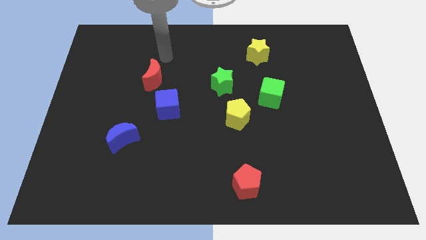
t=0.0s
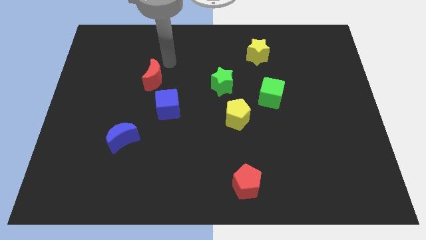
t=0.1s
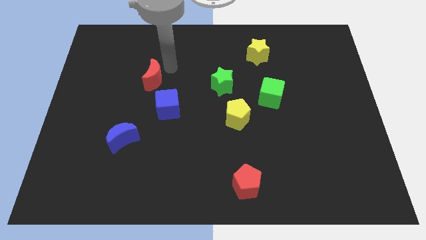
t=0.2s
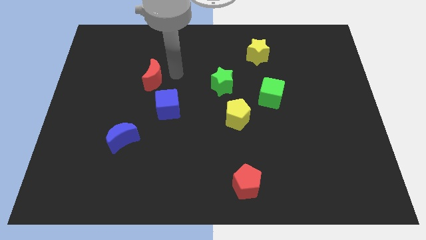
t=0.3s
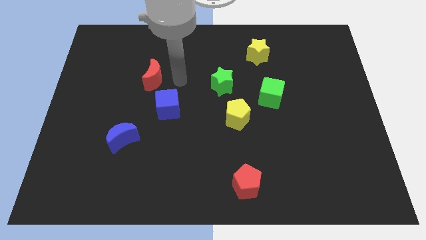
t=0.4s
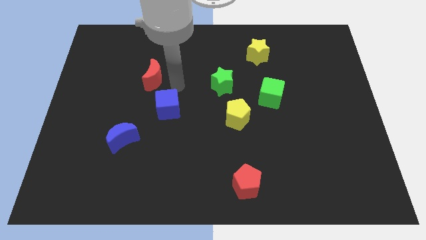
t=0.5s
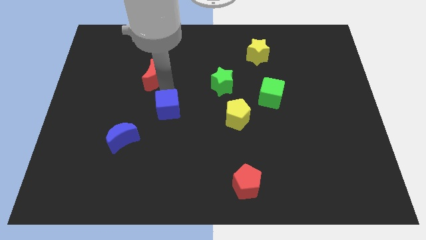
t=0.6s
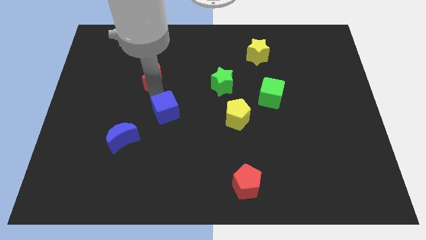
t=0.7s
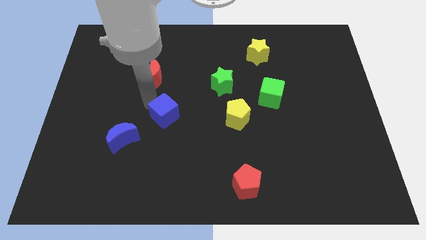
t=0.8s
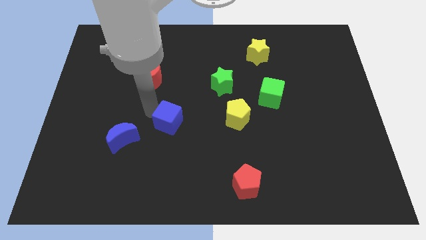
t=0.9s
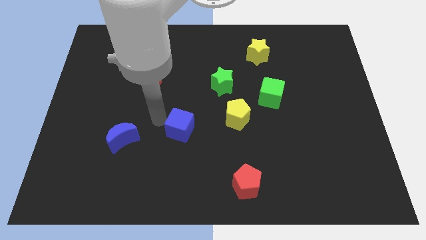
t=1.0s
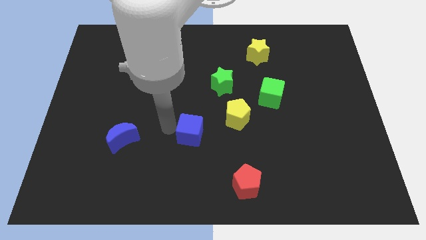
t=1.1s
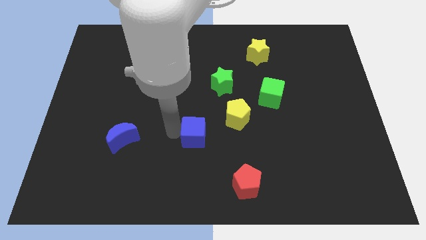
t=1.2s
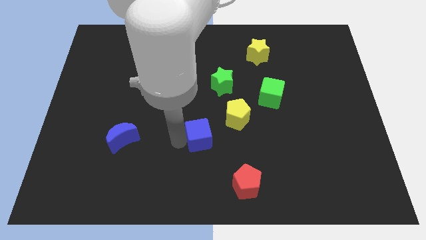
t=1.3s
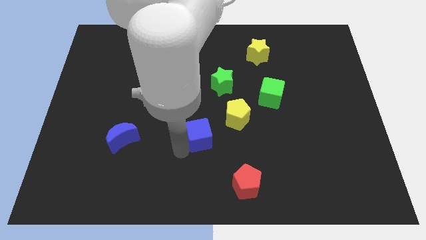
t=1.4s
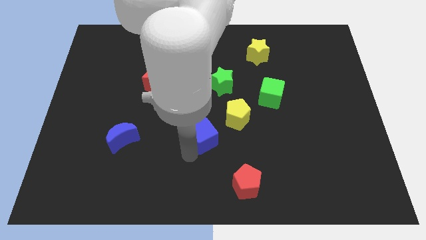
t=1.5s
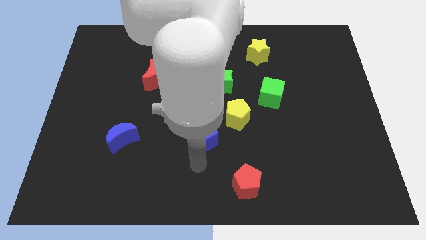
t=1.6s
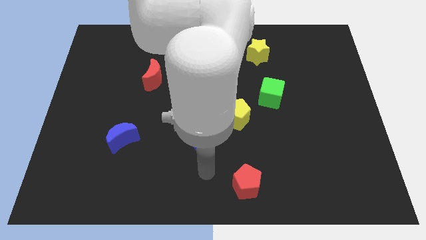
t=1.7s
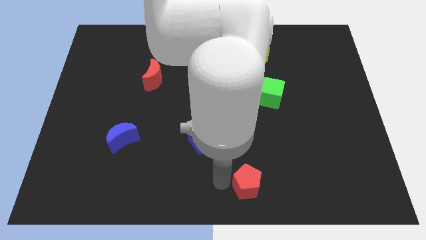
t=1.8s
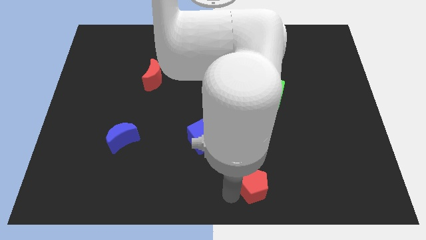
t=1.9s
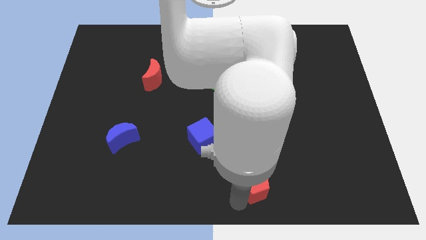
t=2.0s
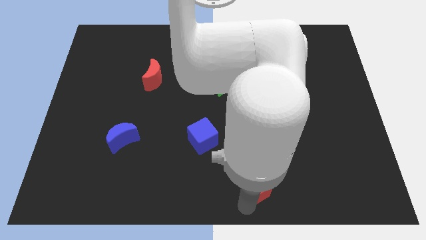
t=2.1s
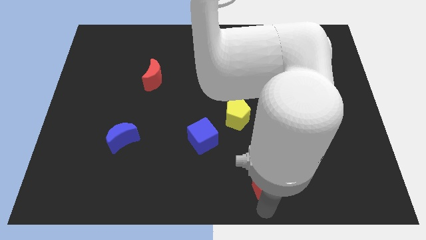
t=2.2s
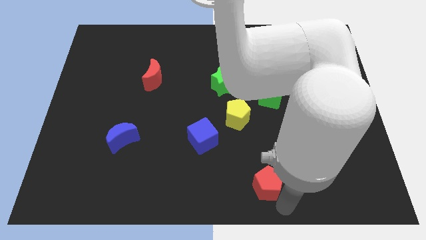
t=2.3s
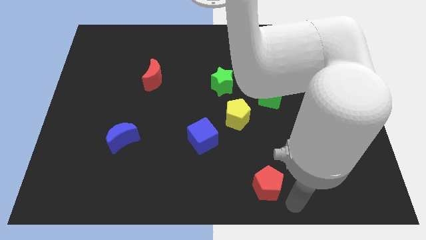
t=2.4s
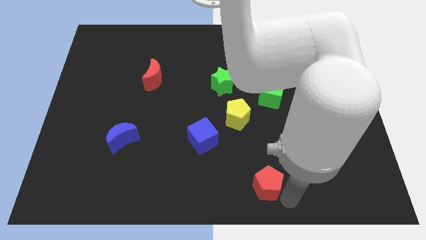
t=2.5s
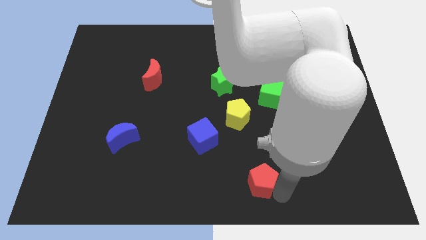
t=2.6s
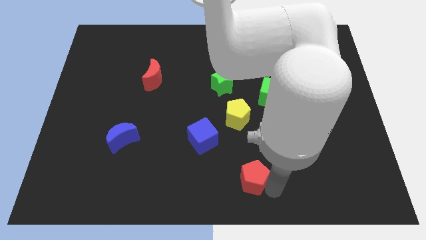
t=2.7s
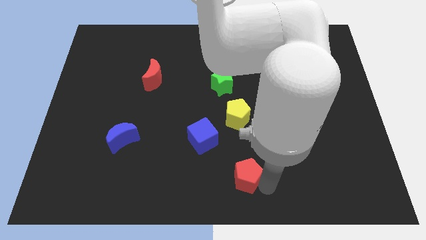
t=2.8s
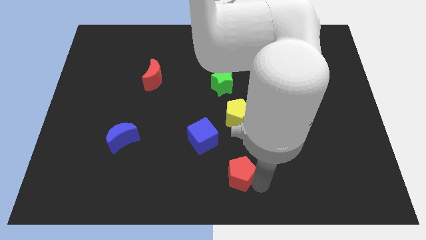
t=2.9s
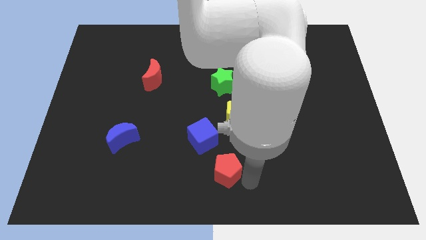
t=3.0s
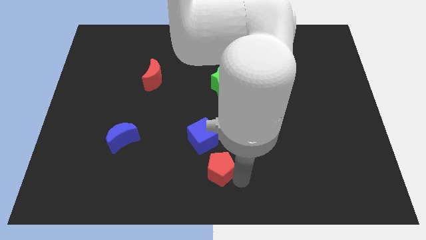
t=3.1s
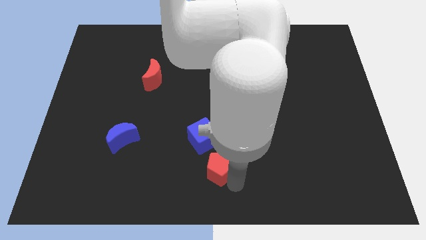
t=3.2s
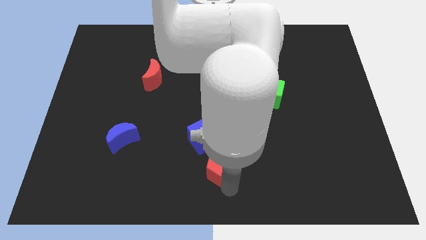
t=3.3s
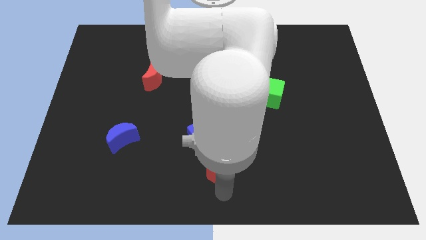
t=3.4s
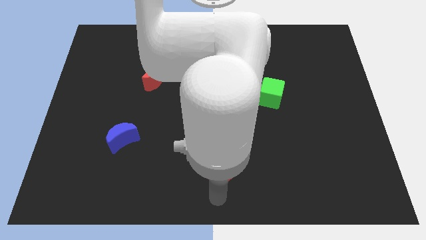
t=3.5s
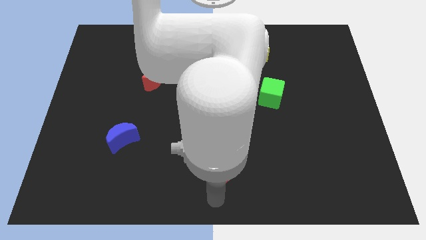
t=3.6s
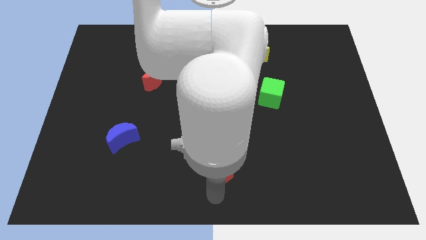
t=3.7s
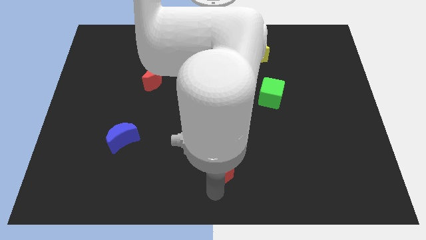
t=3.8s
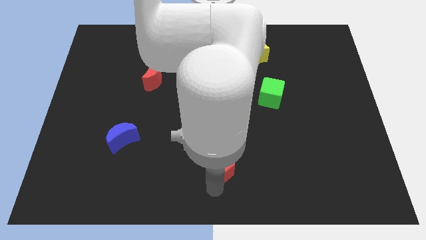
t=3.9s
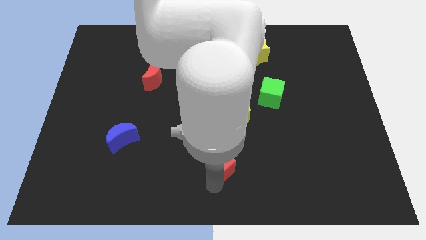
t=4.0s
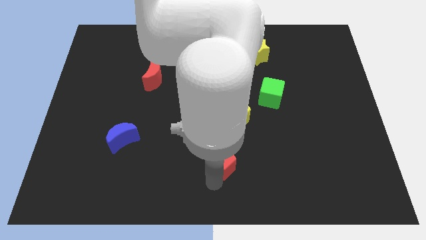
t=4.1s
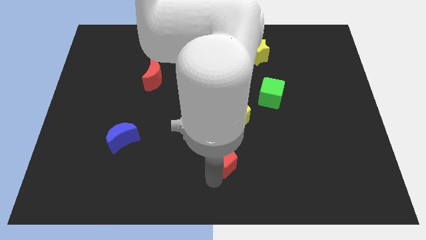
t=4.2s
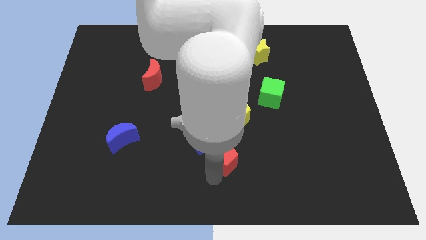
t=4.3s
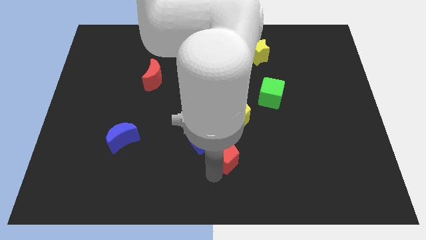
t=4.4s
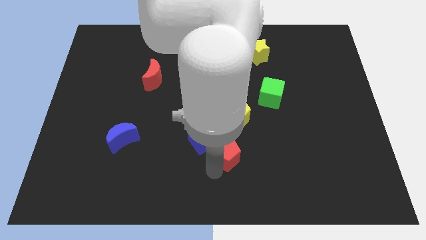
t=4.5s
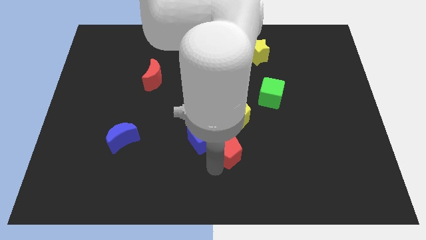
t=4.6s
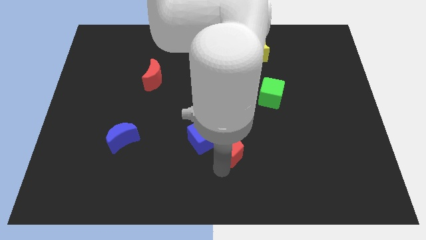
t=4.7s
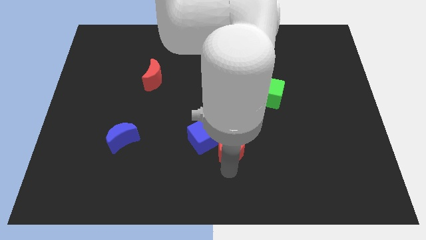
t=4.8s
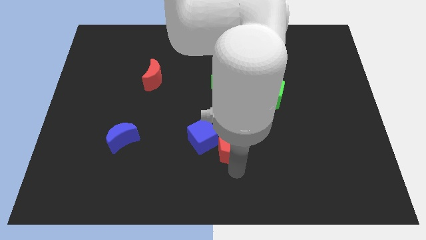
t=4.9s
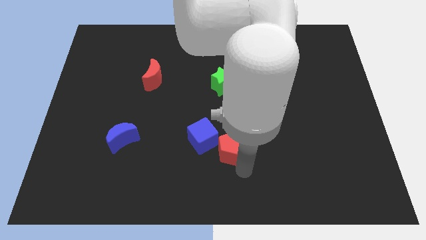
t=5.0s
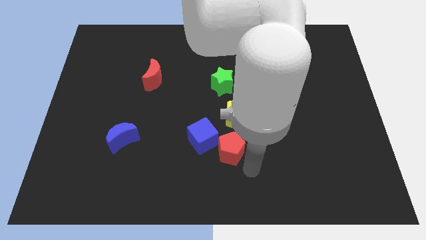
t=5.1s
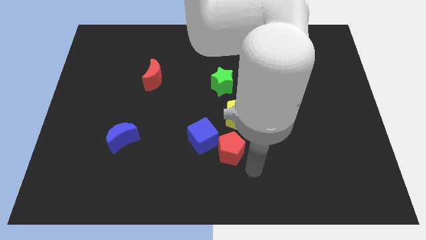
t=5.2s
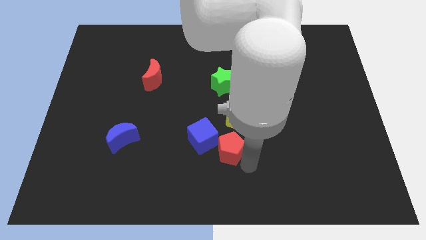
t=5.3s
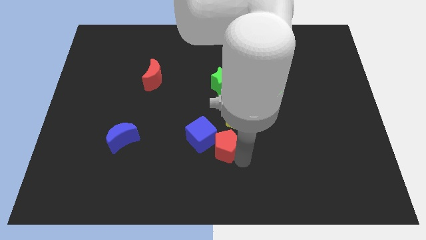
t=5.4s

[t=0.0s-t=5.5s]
put the red pentagon diagonally down and to the left of the yellow pentagon

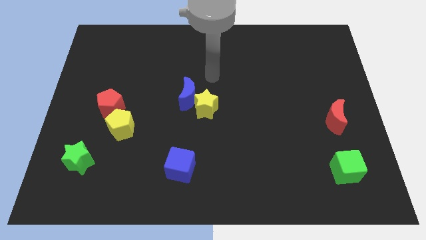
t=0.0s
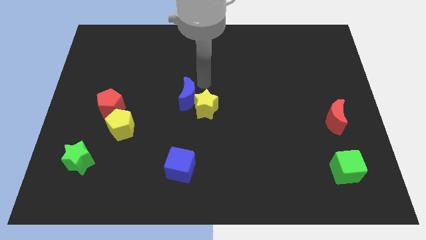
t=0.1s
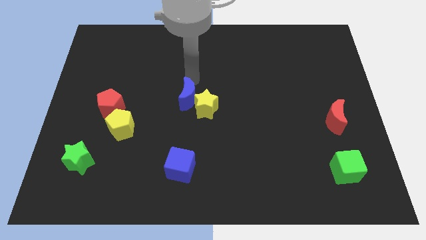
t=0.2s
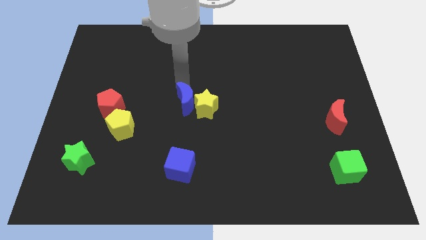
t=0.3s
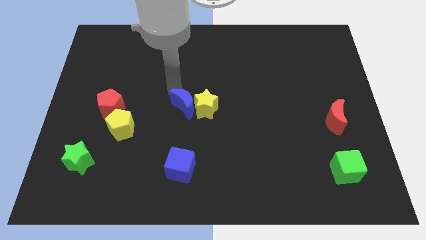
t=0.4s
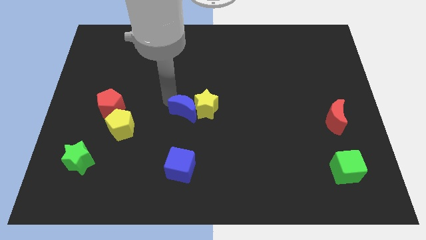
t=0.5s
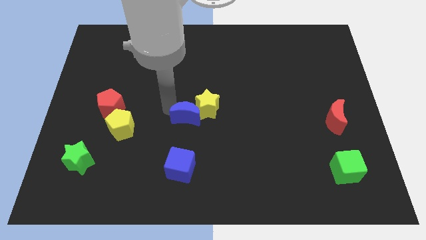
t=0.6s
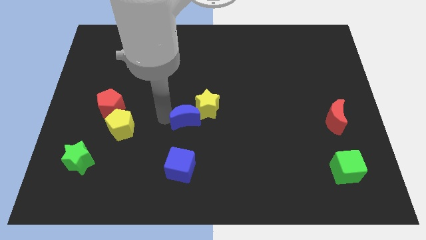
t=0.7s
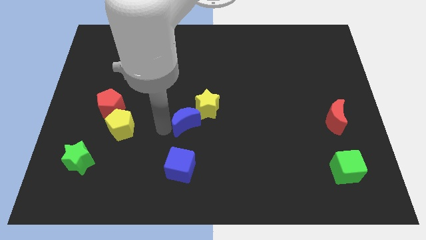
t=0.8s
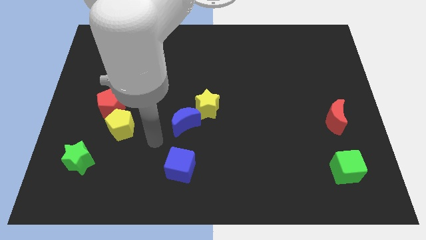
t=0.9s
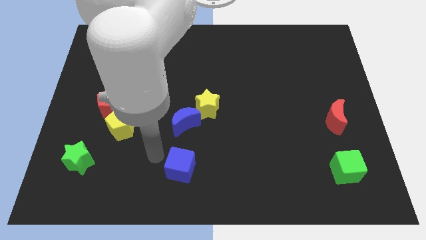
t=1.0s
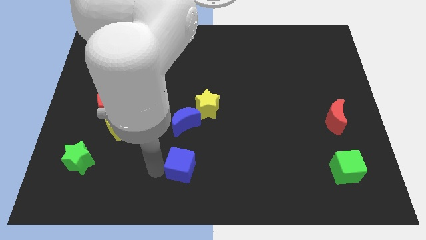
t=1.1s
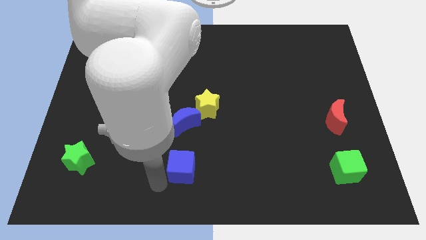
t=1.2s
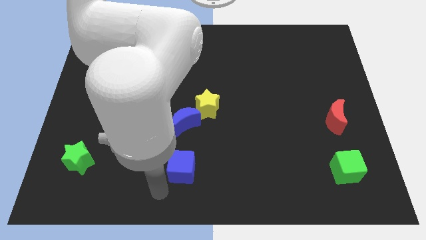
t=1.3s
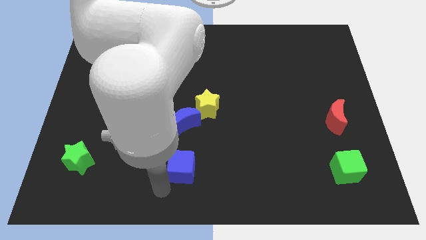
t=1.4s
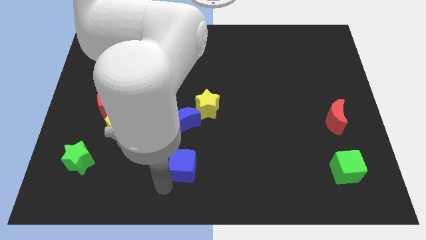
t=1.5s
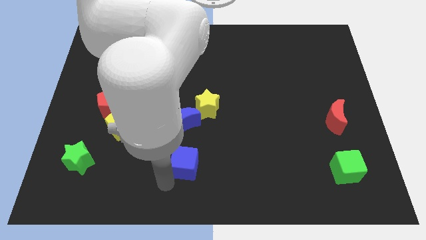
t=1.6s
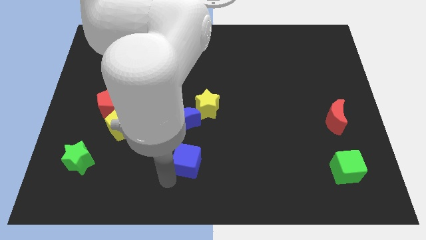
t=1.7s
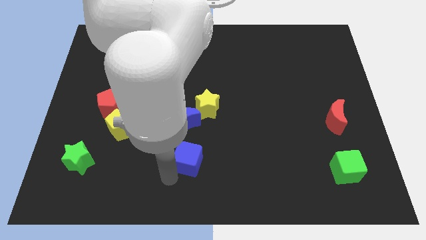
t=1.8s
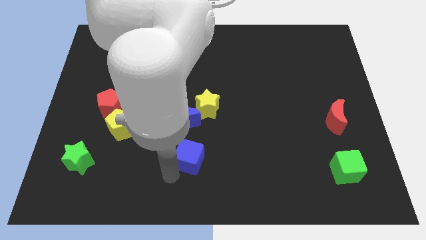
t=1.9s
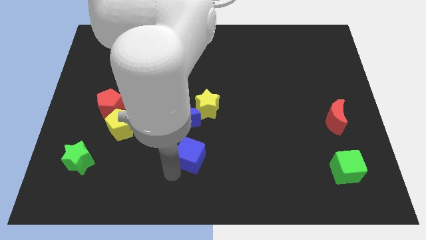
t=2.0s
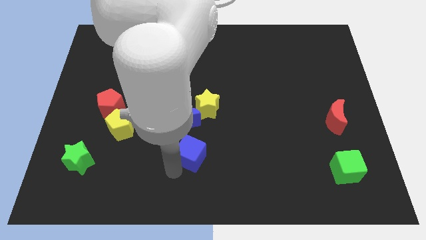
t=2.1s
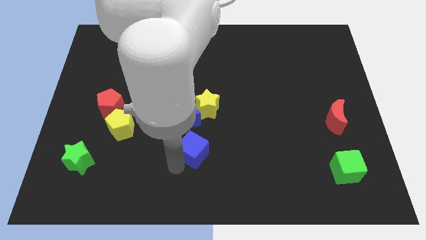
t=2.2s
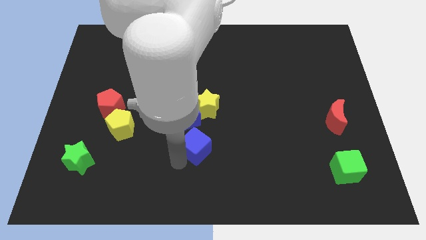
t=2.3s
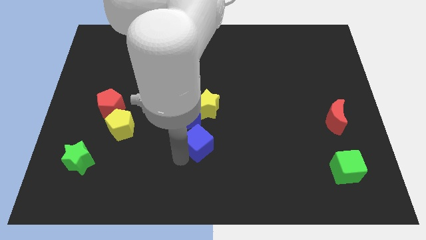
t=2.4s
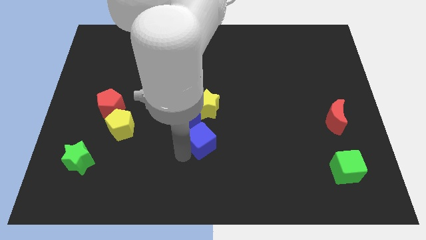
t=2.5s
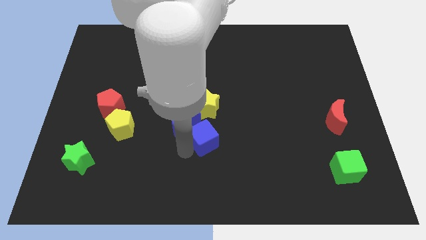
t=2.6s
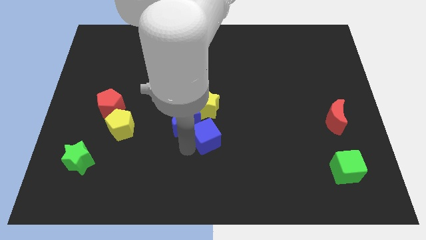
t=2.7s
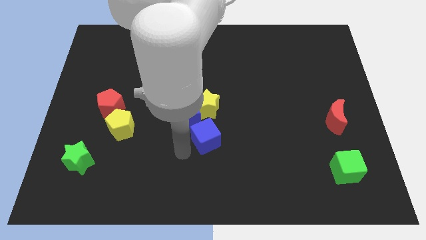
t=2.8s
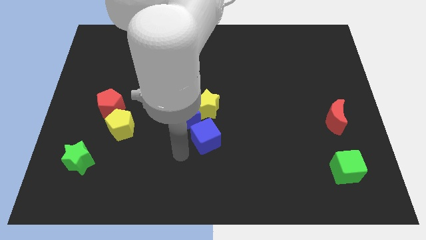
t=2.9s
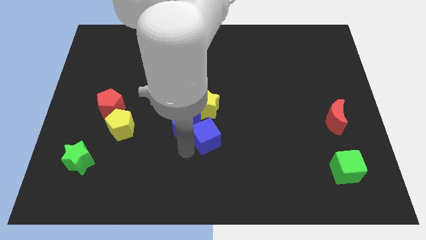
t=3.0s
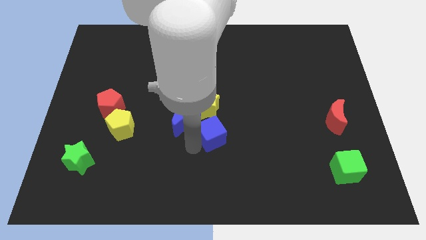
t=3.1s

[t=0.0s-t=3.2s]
slide the blue cube diagonally down and to the right of the yellow star
